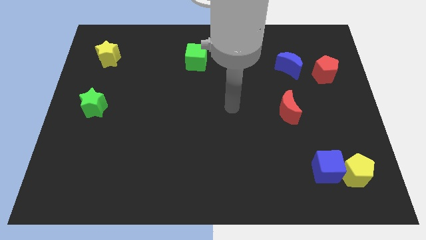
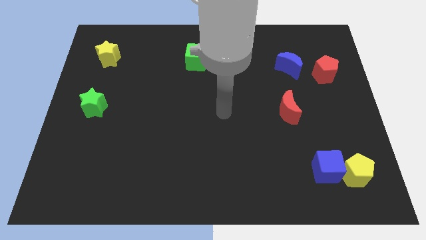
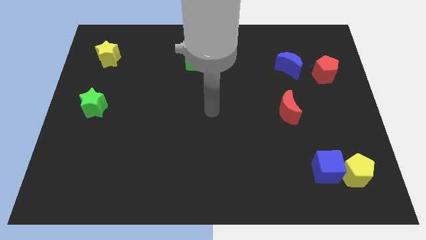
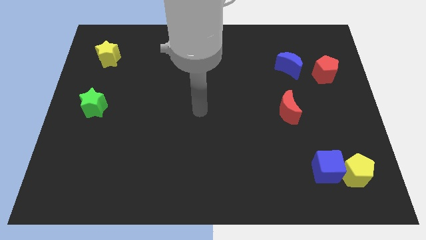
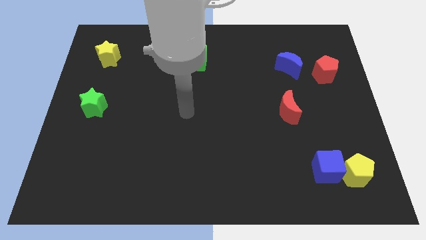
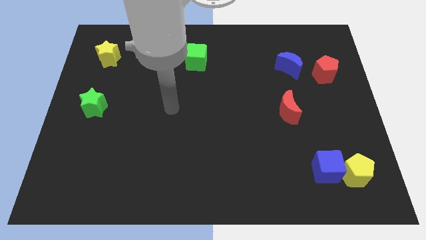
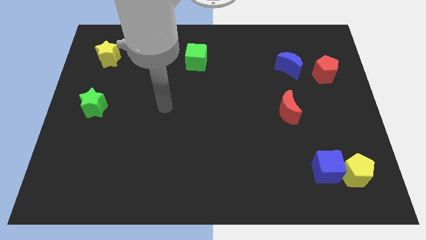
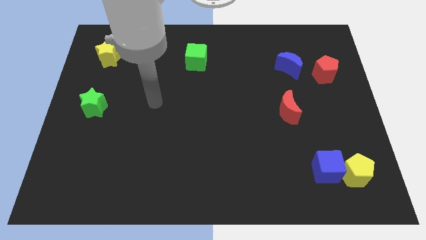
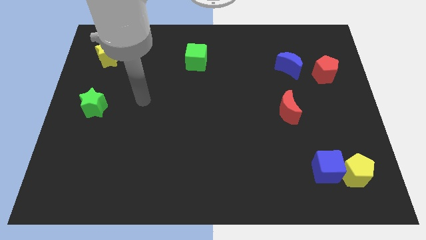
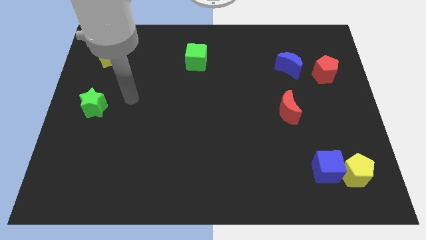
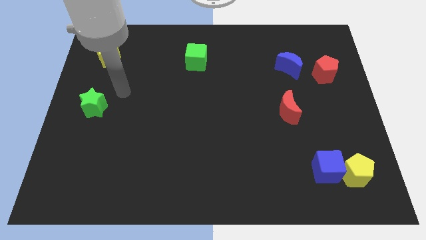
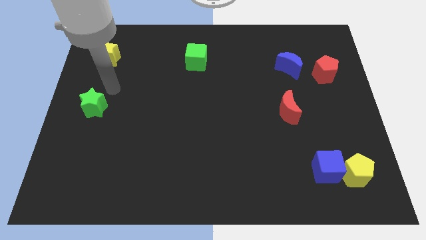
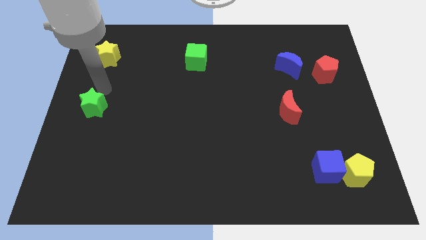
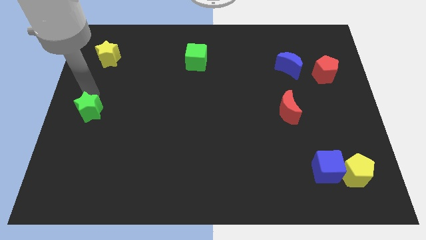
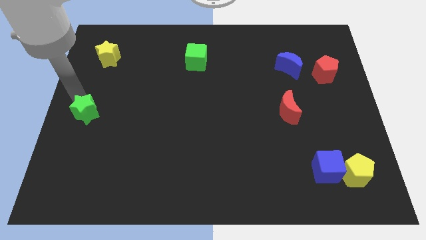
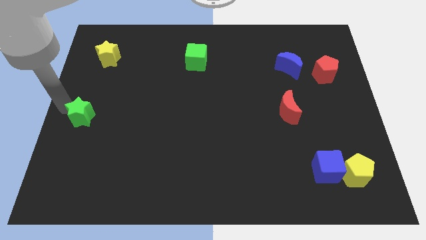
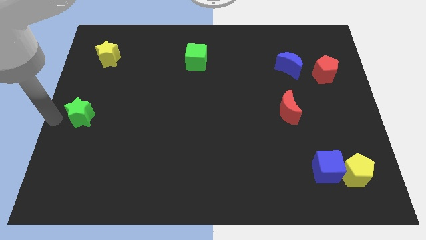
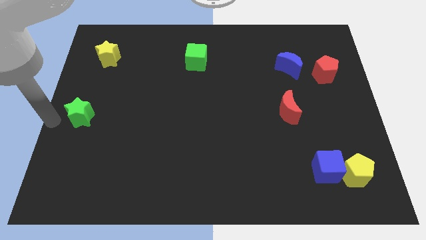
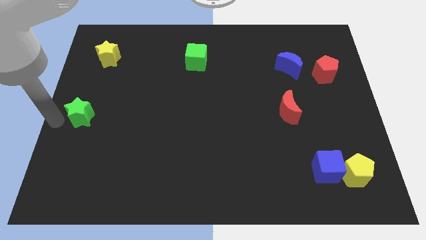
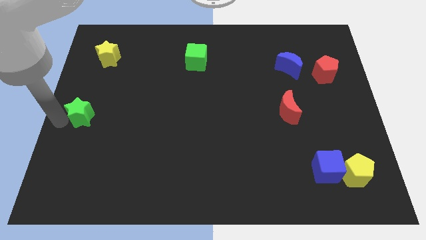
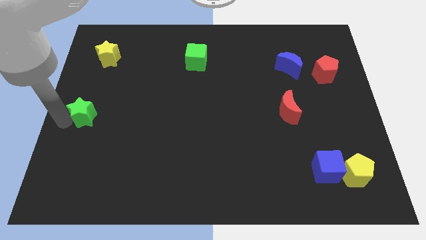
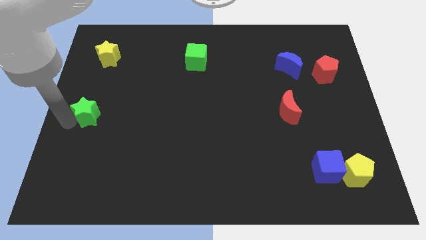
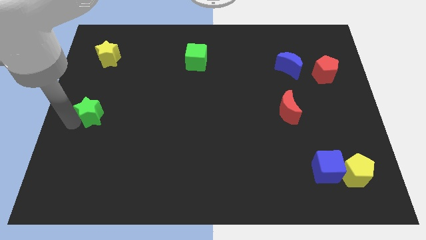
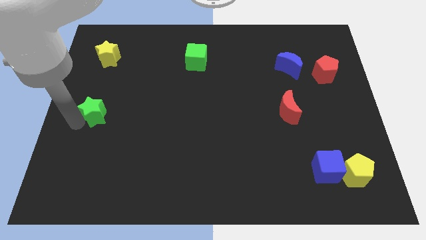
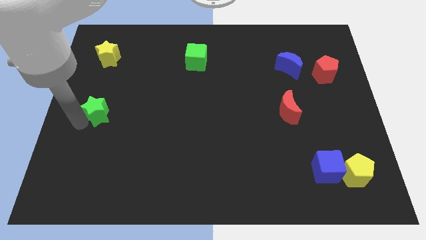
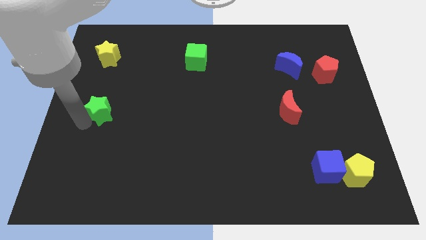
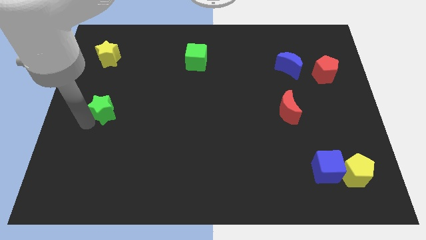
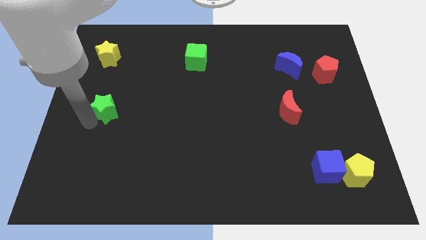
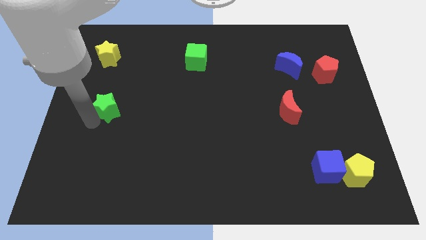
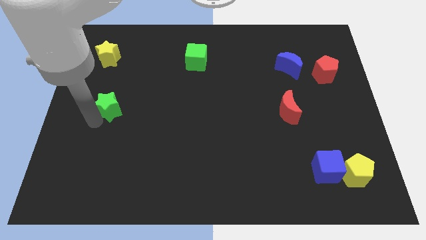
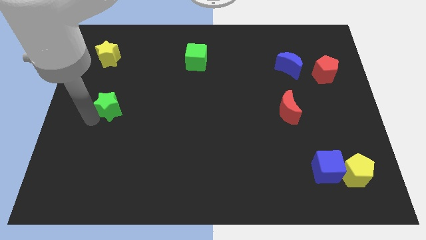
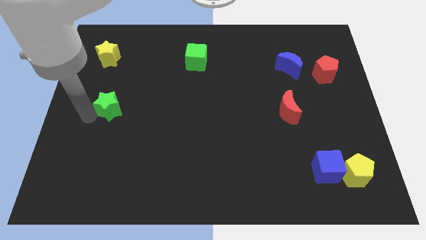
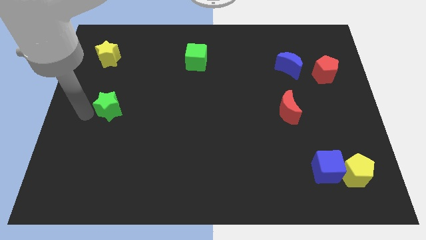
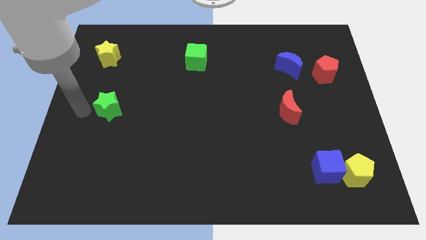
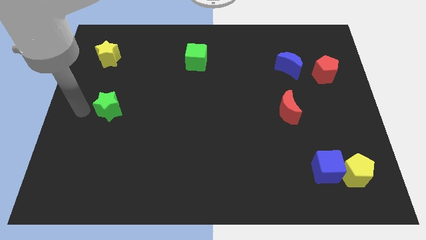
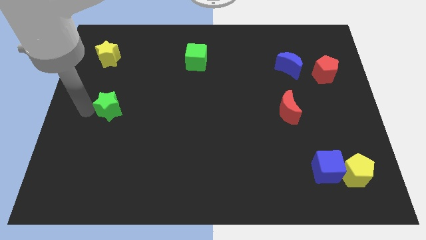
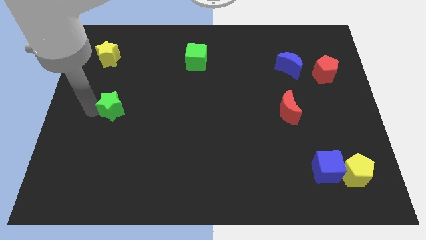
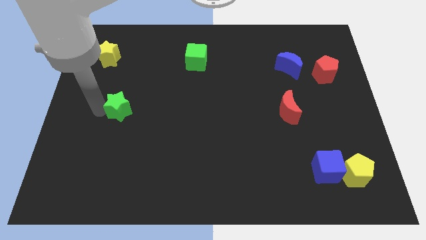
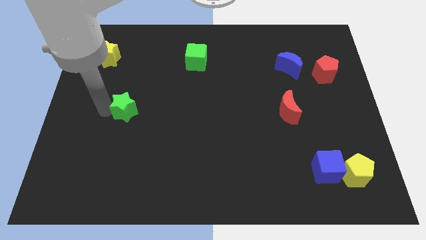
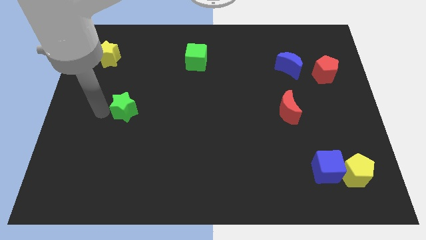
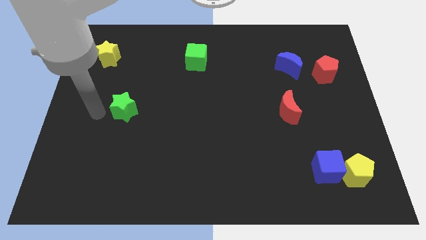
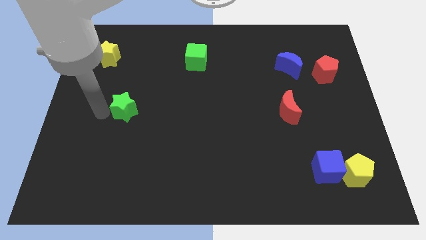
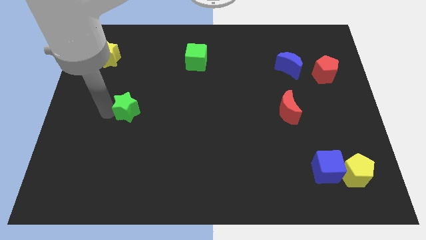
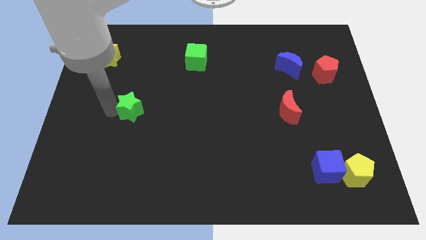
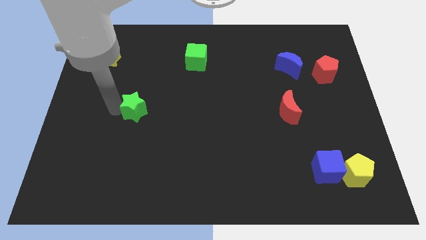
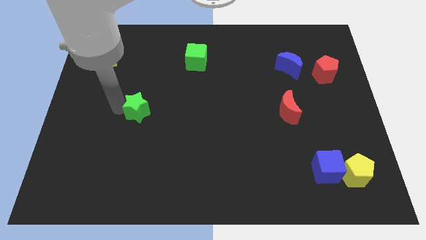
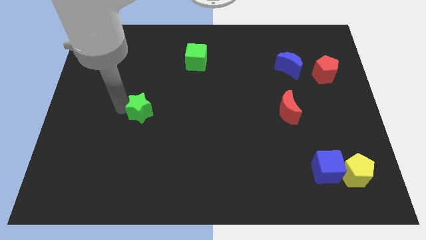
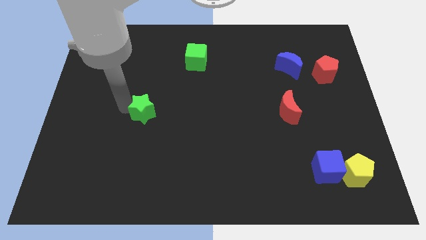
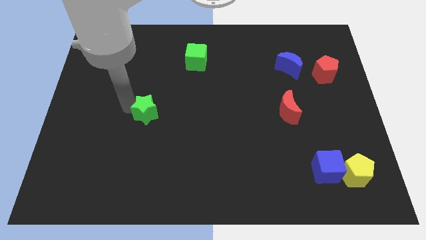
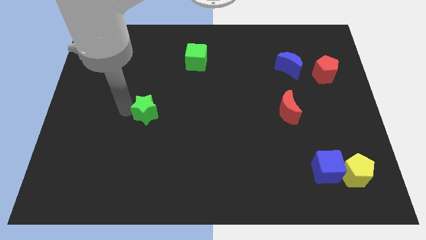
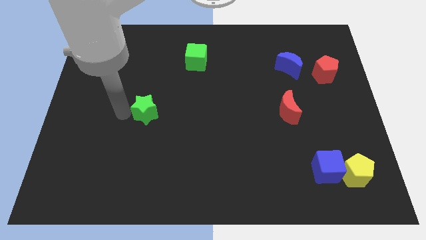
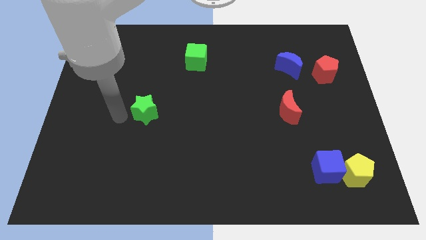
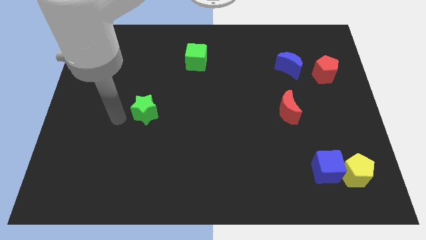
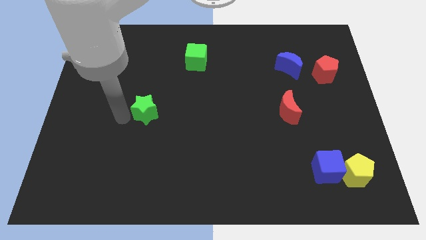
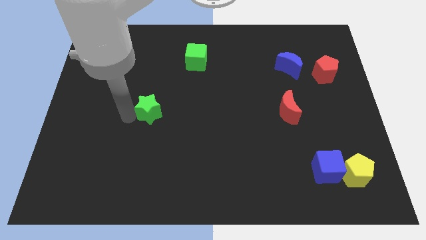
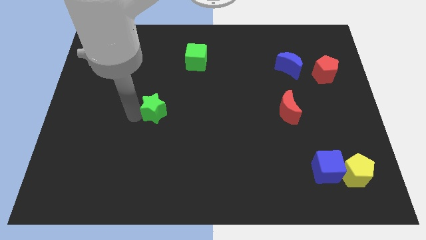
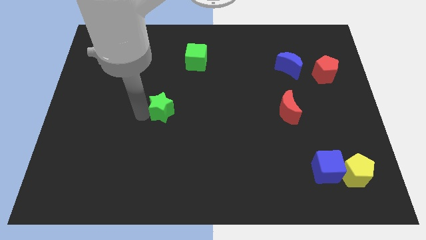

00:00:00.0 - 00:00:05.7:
put the green star to the middle
